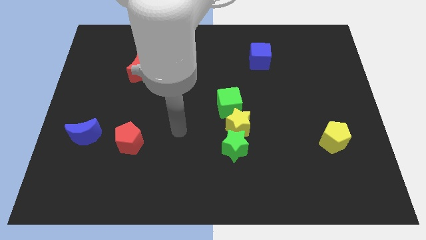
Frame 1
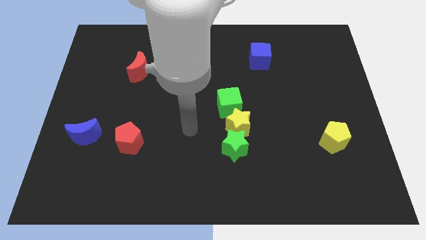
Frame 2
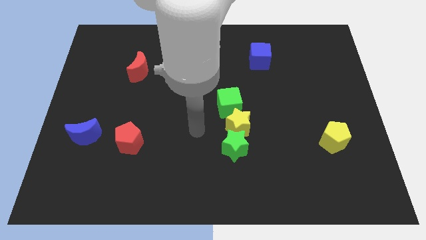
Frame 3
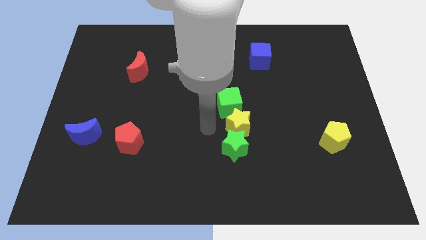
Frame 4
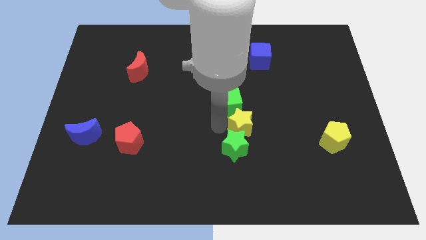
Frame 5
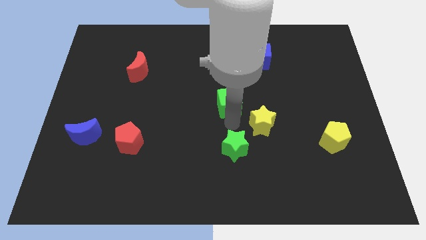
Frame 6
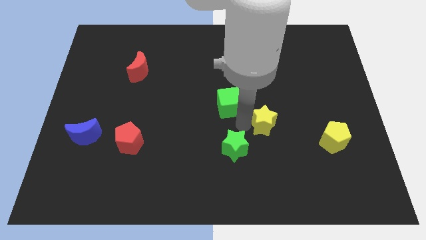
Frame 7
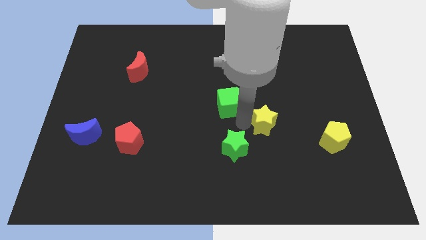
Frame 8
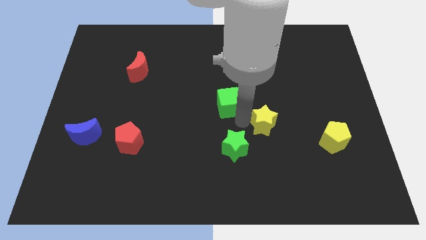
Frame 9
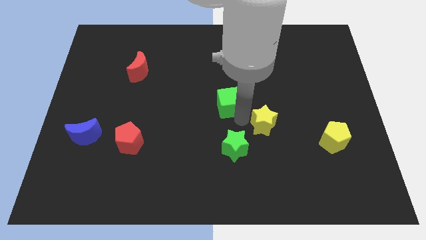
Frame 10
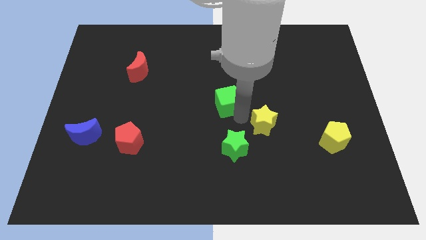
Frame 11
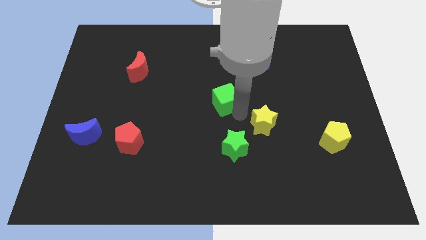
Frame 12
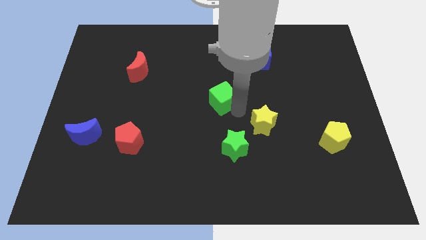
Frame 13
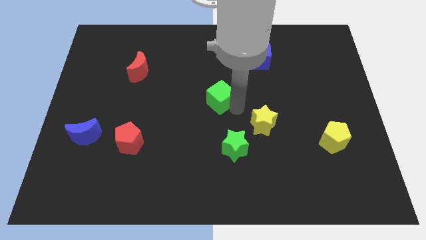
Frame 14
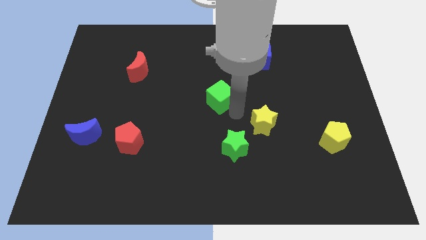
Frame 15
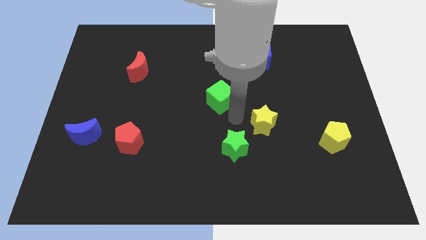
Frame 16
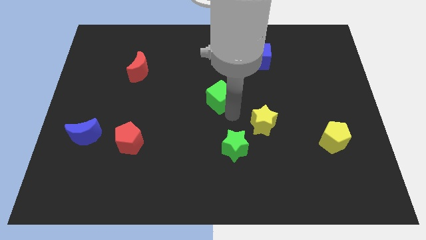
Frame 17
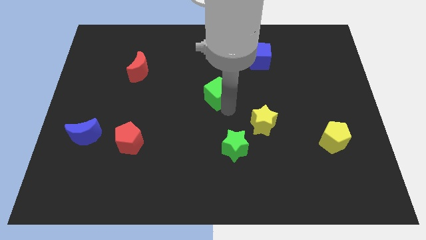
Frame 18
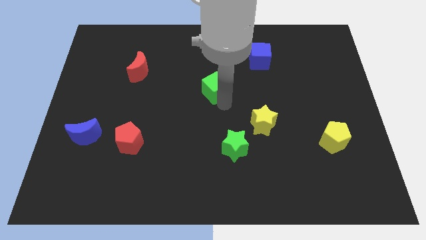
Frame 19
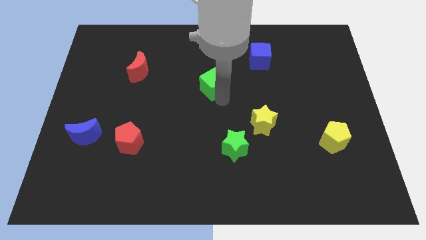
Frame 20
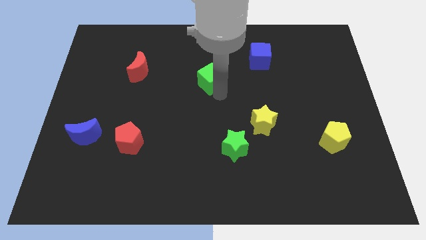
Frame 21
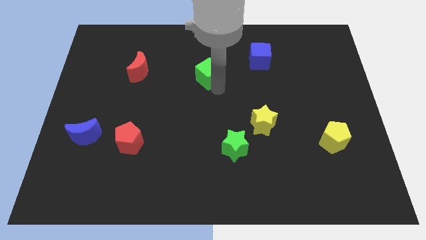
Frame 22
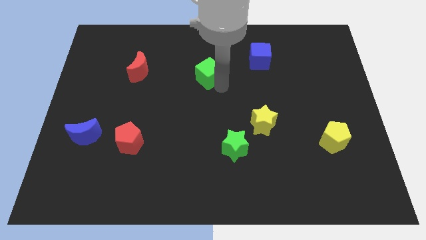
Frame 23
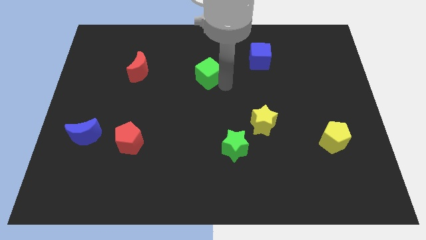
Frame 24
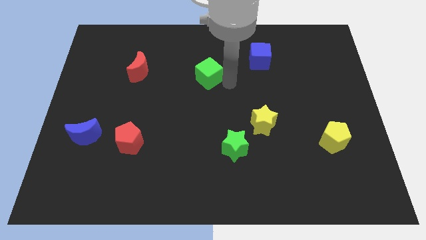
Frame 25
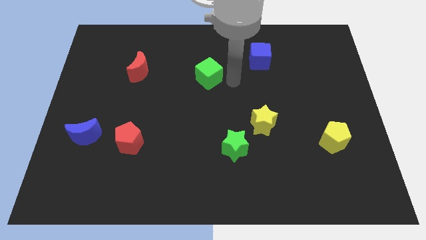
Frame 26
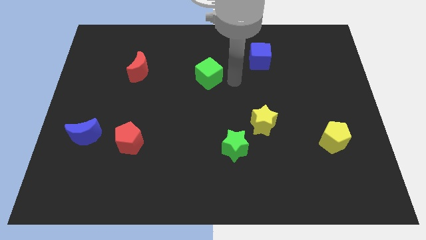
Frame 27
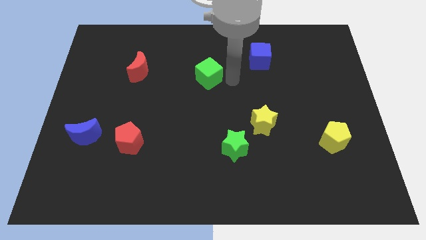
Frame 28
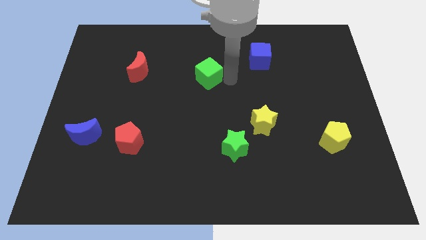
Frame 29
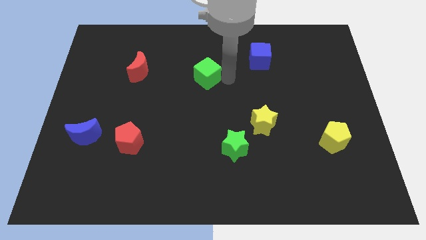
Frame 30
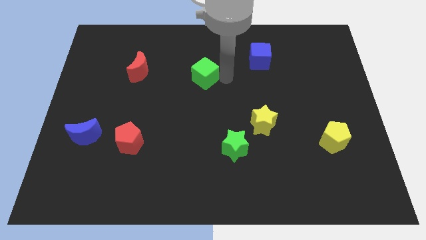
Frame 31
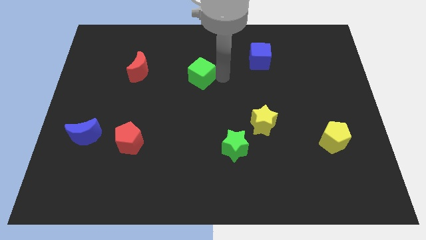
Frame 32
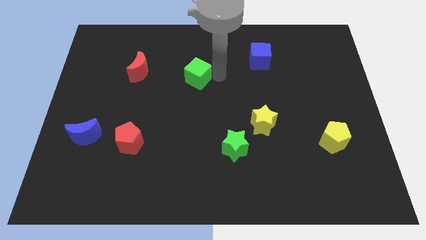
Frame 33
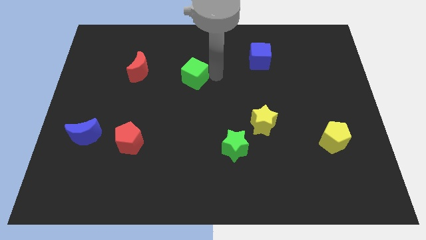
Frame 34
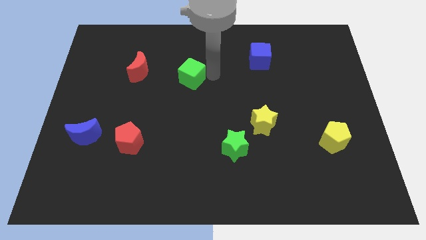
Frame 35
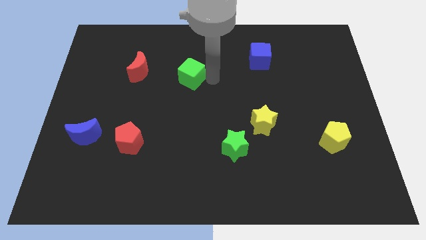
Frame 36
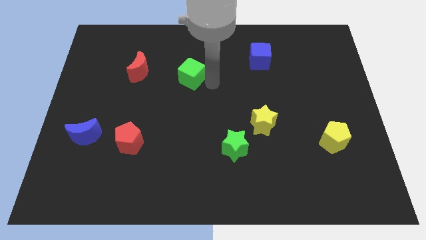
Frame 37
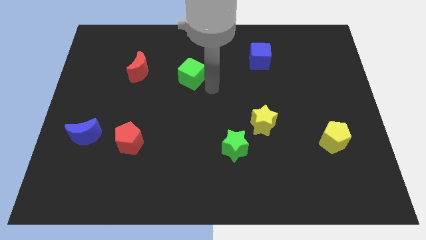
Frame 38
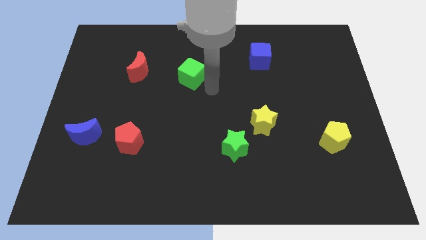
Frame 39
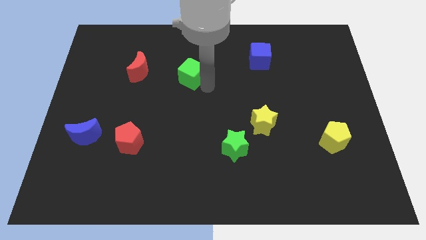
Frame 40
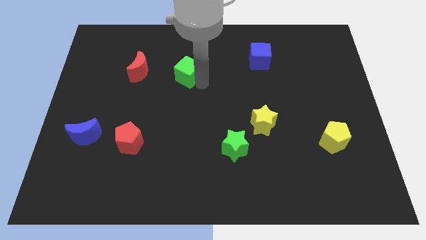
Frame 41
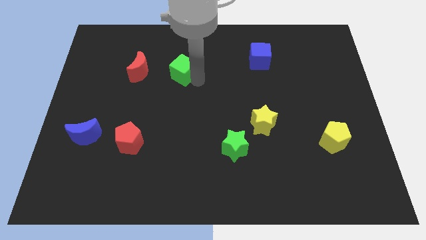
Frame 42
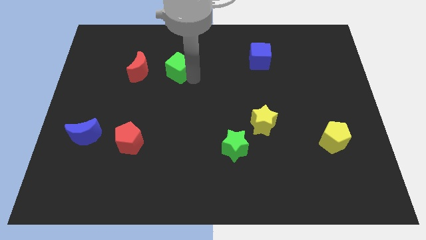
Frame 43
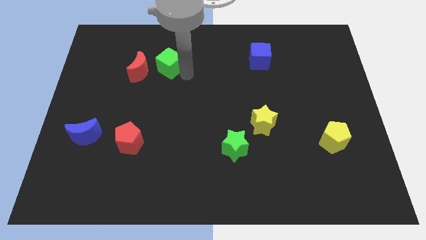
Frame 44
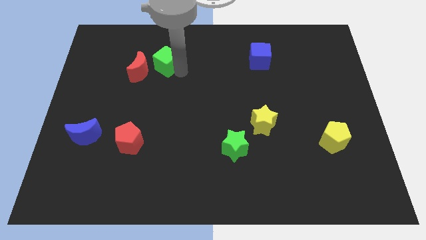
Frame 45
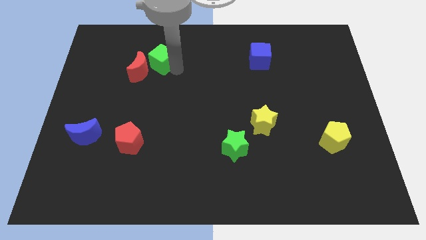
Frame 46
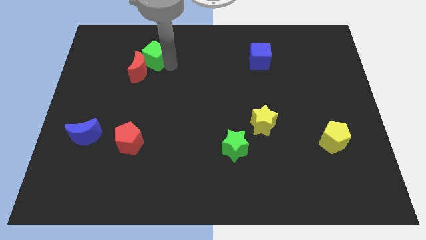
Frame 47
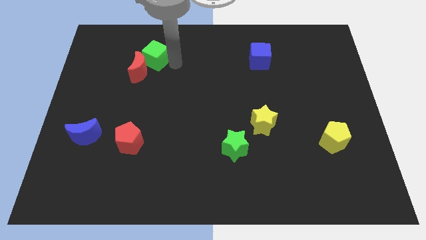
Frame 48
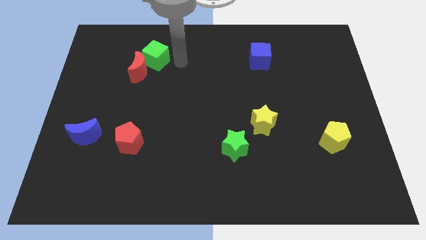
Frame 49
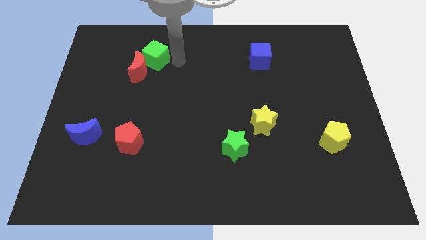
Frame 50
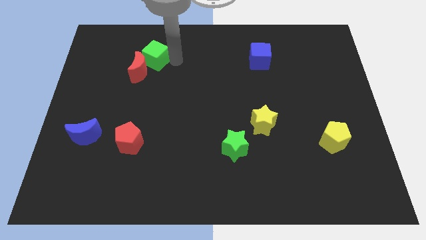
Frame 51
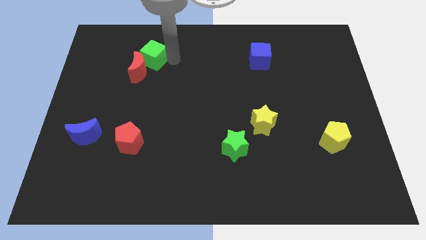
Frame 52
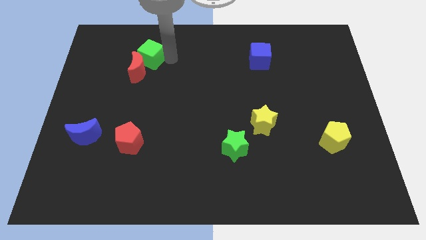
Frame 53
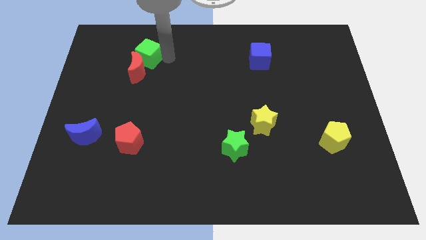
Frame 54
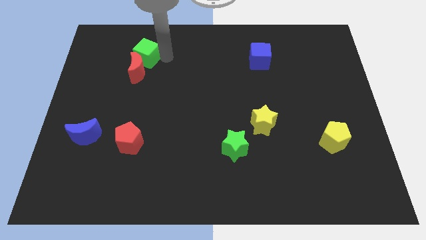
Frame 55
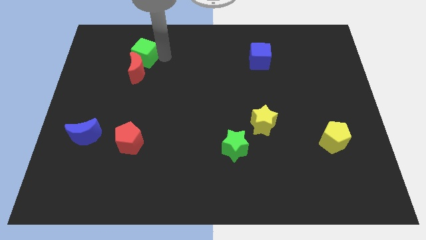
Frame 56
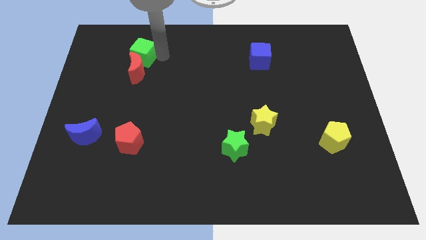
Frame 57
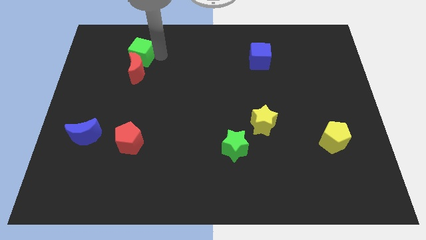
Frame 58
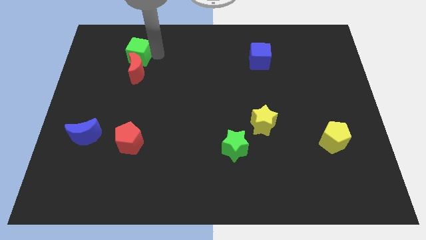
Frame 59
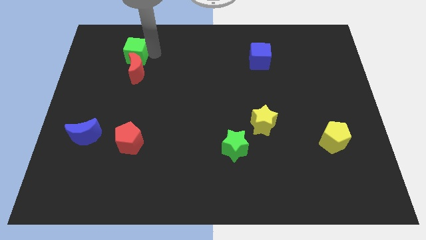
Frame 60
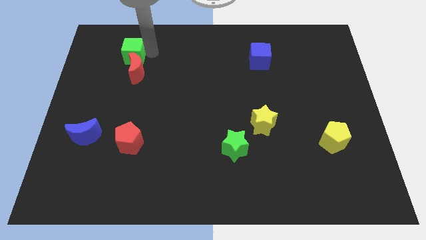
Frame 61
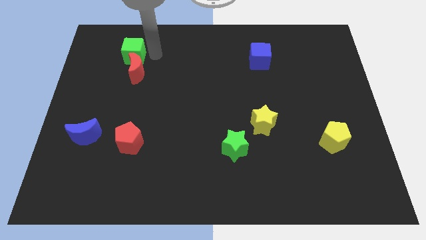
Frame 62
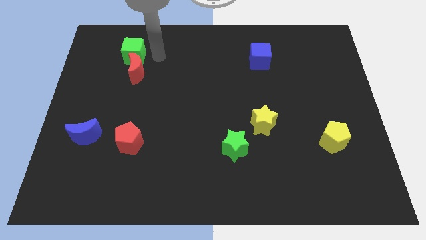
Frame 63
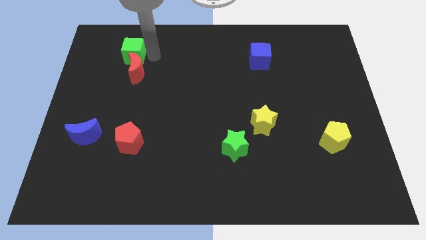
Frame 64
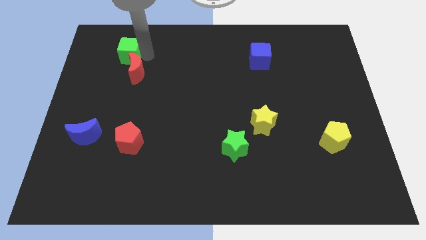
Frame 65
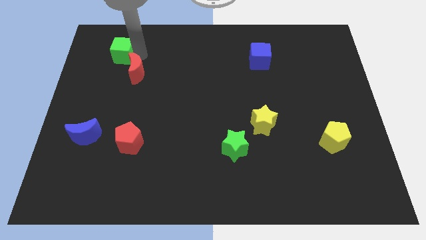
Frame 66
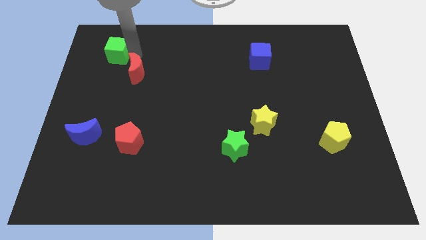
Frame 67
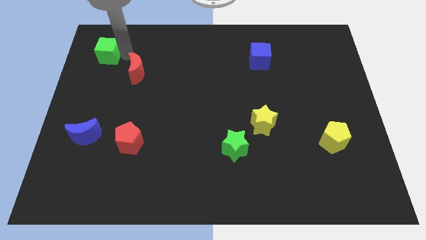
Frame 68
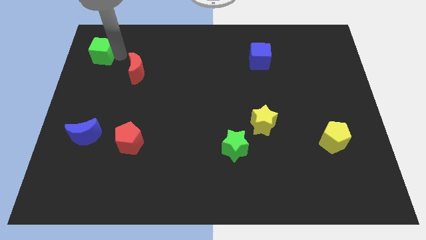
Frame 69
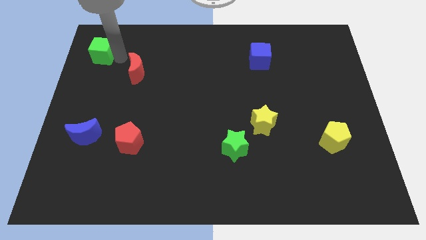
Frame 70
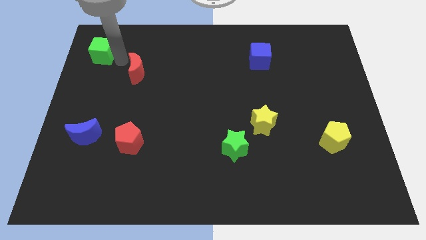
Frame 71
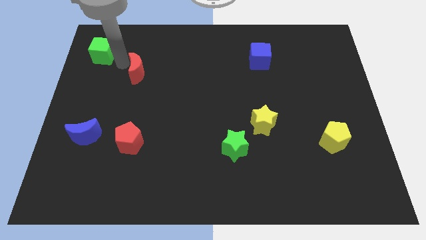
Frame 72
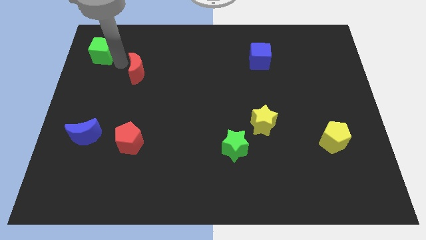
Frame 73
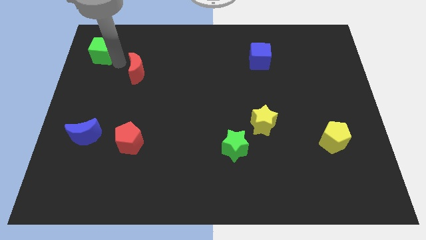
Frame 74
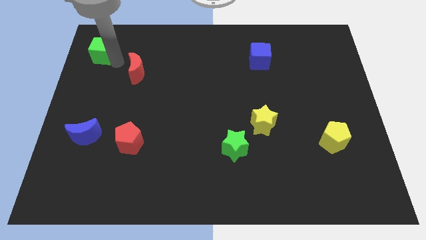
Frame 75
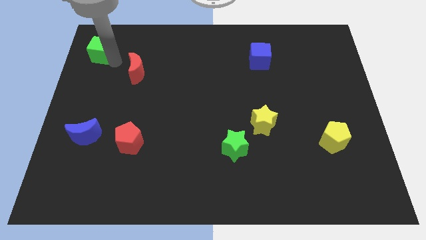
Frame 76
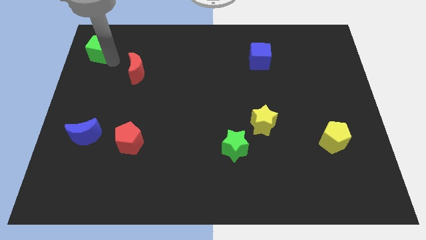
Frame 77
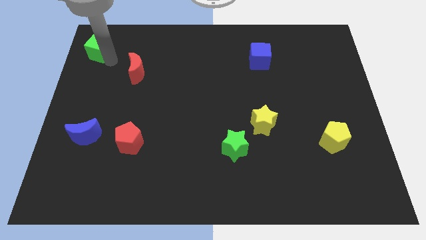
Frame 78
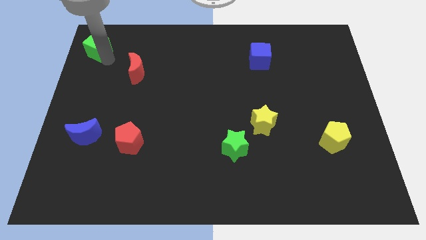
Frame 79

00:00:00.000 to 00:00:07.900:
slide the green cube to the top left of the board
